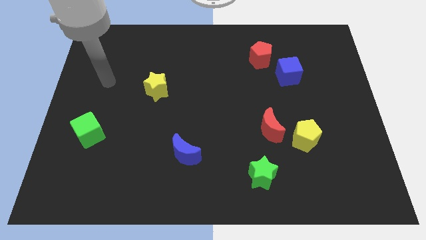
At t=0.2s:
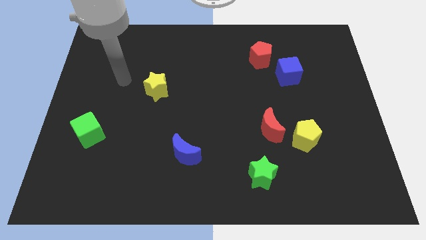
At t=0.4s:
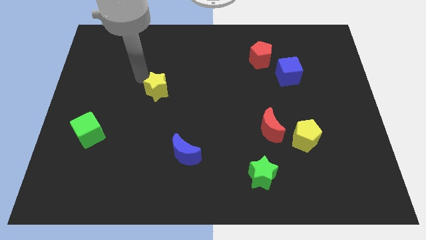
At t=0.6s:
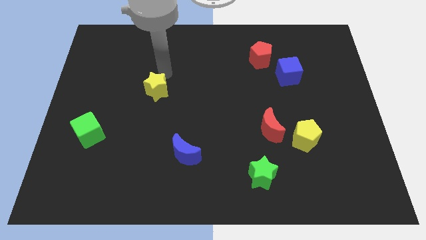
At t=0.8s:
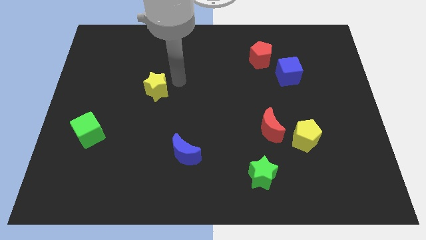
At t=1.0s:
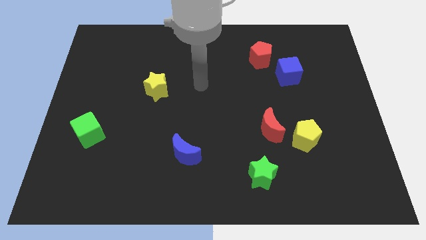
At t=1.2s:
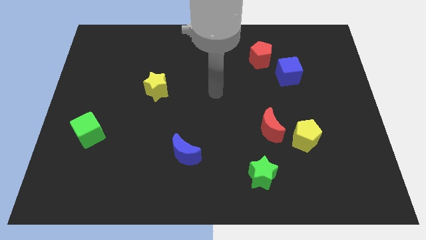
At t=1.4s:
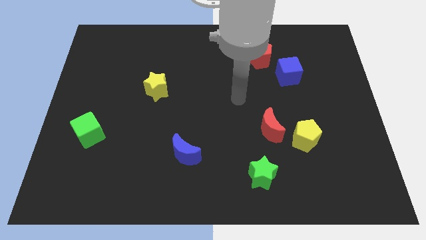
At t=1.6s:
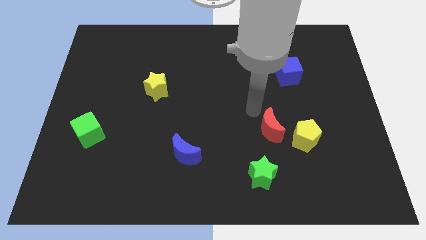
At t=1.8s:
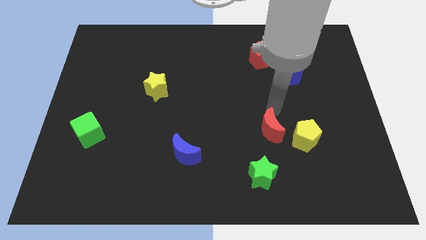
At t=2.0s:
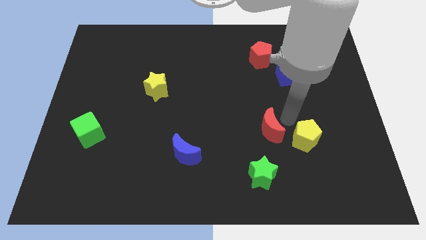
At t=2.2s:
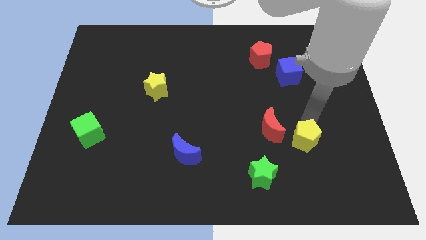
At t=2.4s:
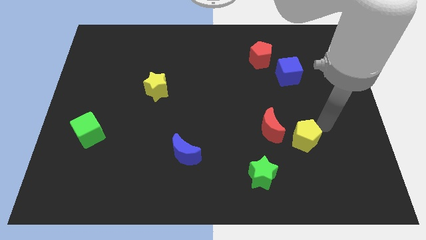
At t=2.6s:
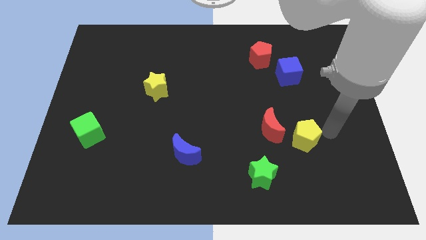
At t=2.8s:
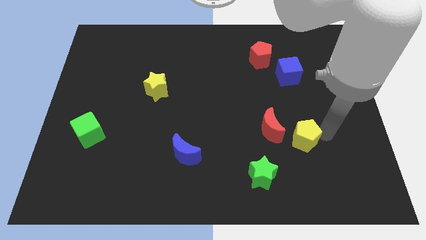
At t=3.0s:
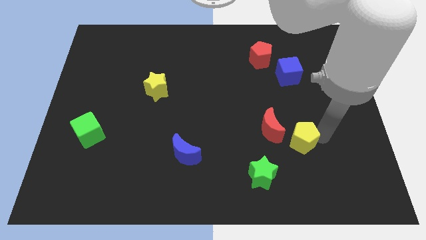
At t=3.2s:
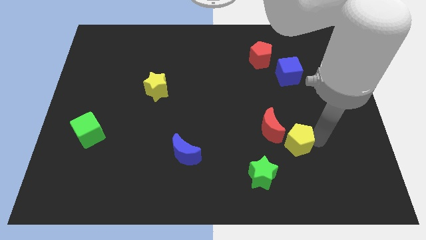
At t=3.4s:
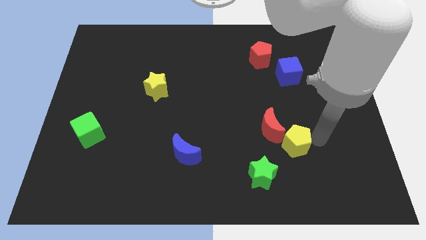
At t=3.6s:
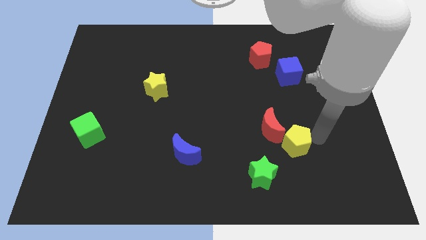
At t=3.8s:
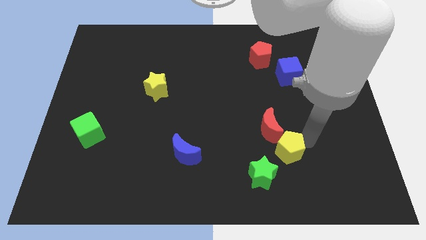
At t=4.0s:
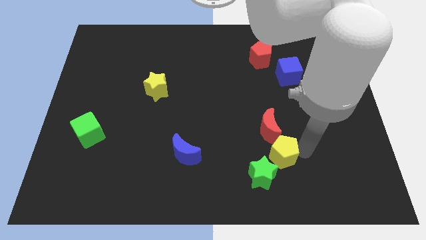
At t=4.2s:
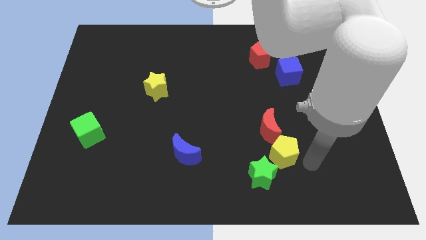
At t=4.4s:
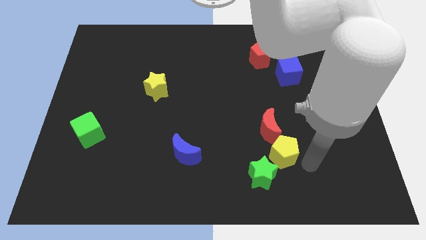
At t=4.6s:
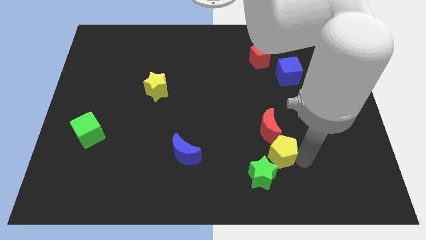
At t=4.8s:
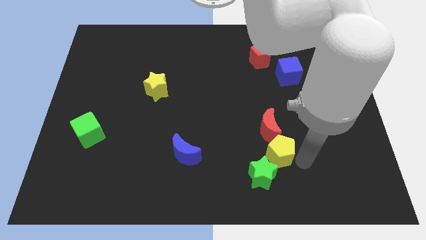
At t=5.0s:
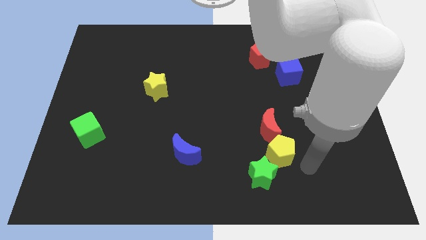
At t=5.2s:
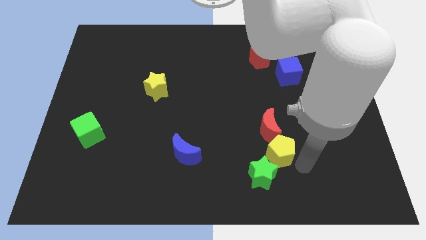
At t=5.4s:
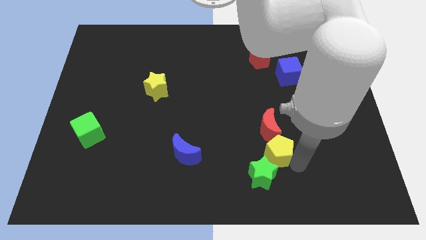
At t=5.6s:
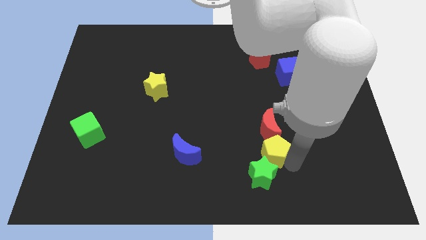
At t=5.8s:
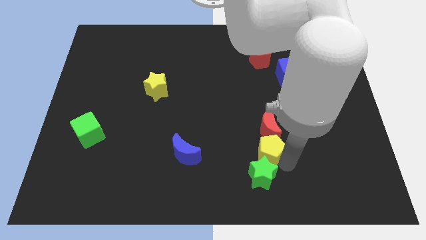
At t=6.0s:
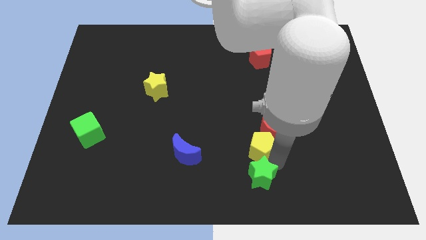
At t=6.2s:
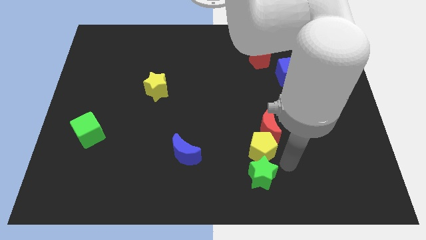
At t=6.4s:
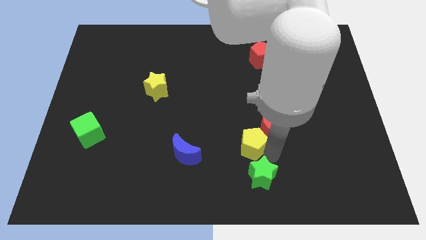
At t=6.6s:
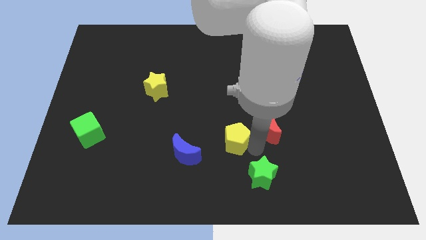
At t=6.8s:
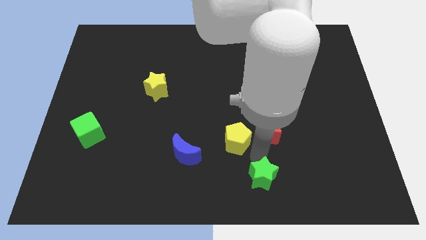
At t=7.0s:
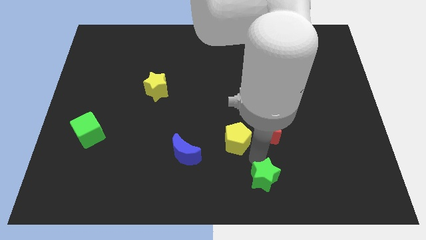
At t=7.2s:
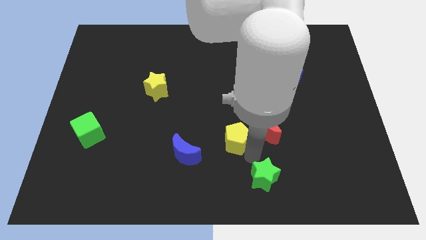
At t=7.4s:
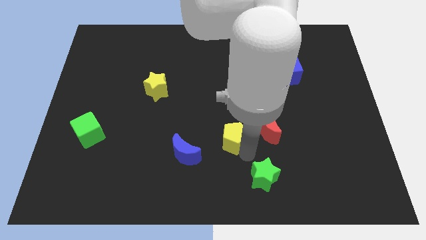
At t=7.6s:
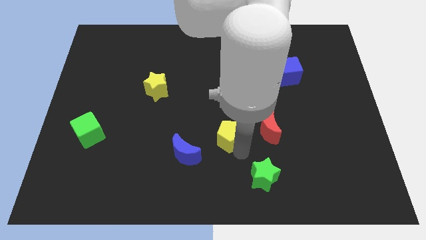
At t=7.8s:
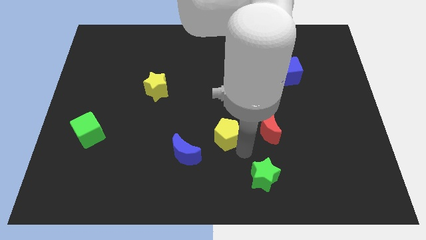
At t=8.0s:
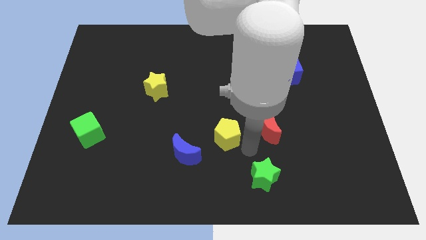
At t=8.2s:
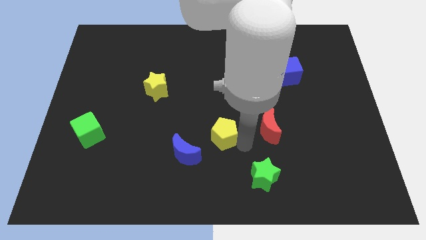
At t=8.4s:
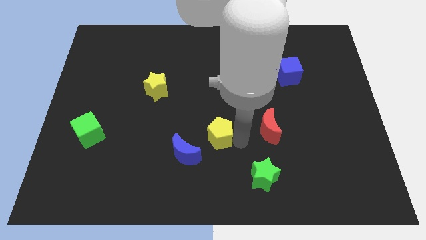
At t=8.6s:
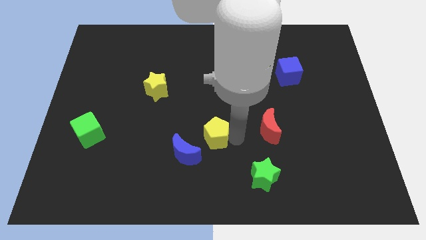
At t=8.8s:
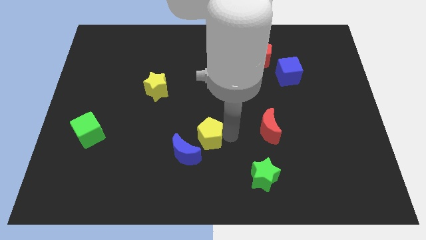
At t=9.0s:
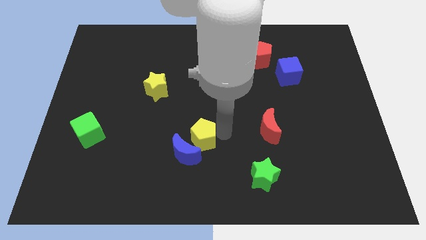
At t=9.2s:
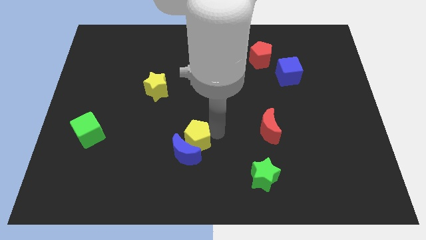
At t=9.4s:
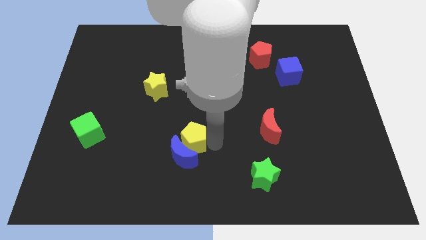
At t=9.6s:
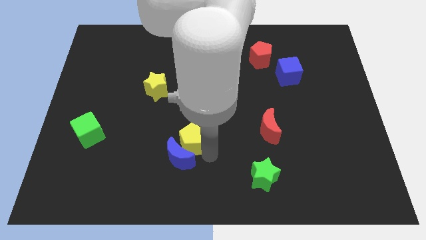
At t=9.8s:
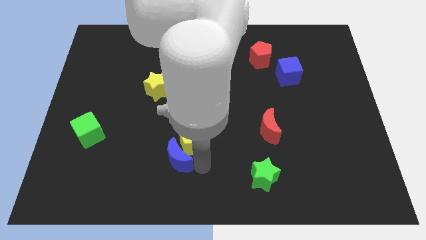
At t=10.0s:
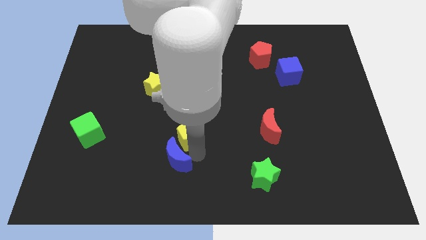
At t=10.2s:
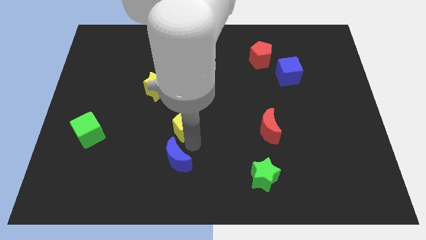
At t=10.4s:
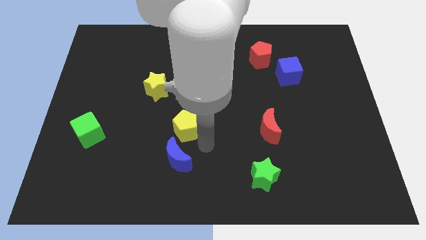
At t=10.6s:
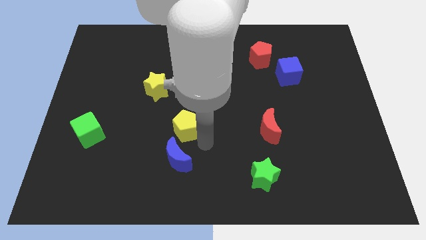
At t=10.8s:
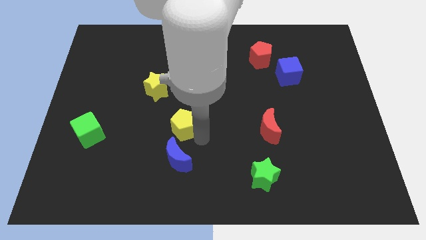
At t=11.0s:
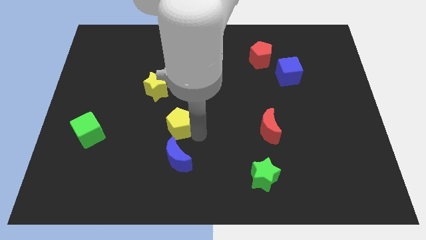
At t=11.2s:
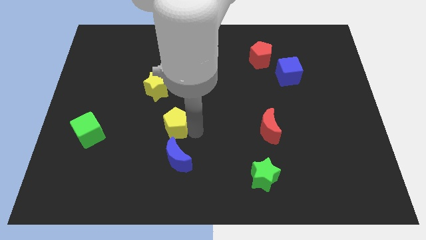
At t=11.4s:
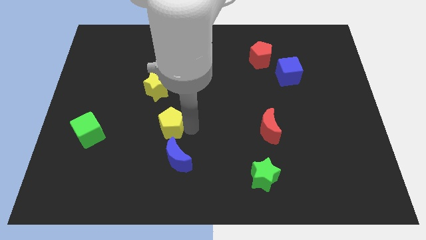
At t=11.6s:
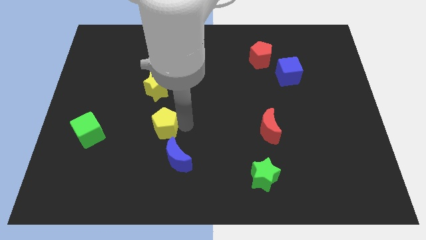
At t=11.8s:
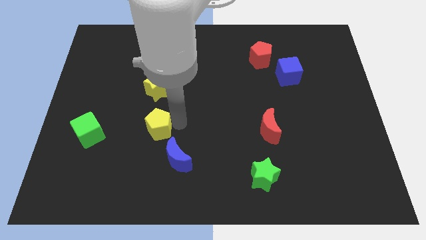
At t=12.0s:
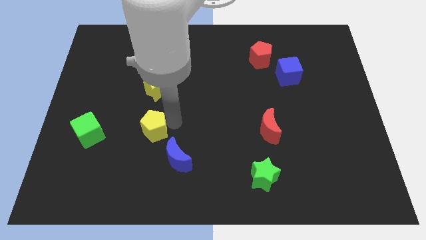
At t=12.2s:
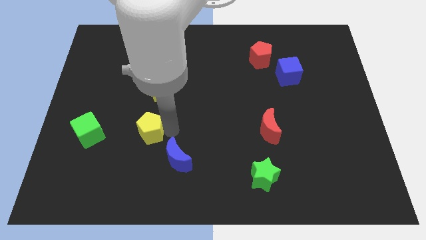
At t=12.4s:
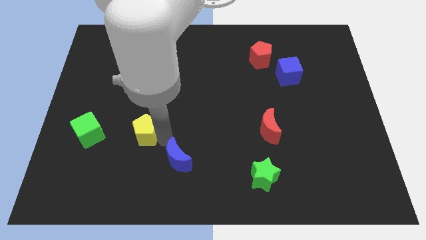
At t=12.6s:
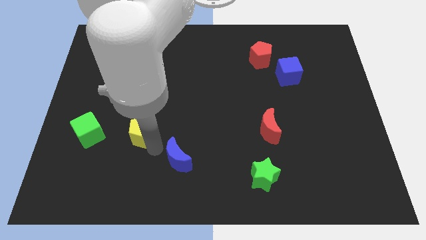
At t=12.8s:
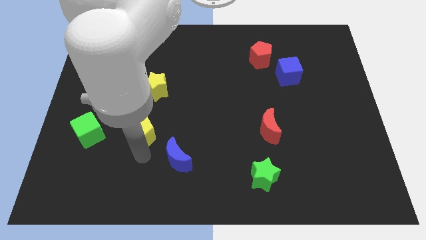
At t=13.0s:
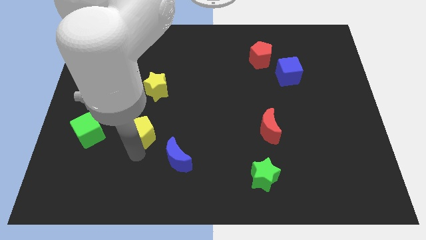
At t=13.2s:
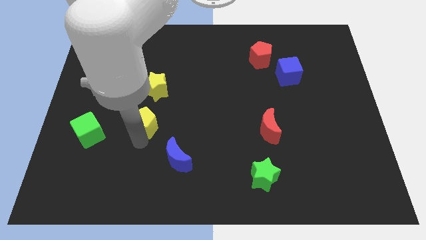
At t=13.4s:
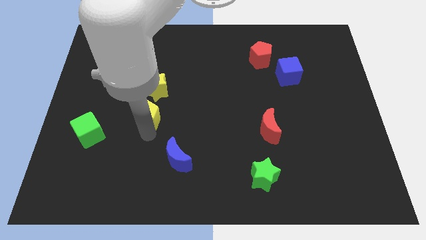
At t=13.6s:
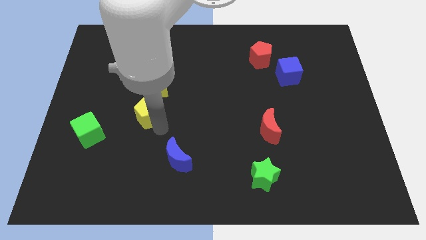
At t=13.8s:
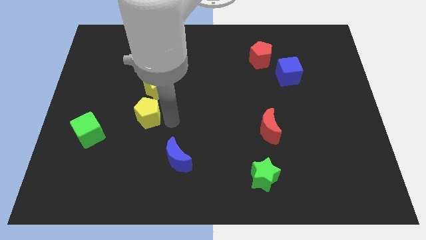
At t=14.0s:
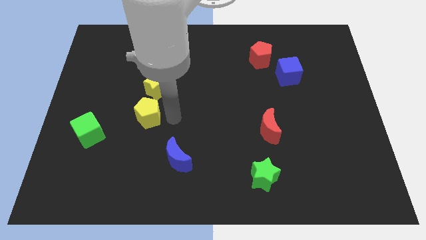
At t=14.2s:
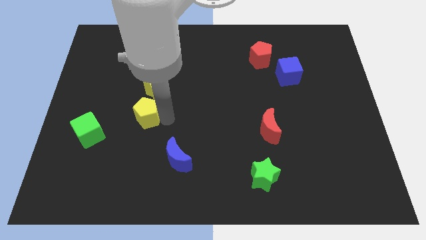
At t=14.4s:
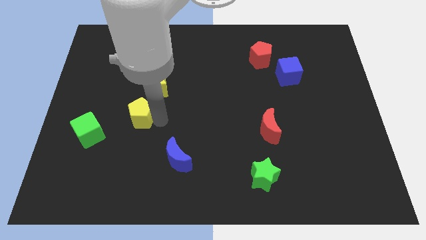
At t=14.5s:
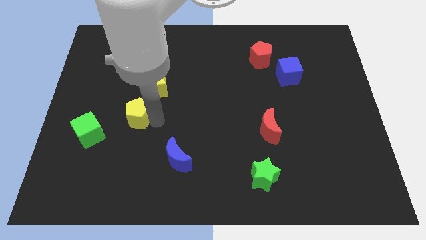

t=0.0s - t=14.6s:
put the yellow pentagon diagonally up and to the right of the green cube
